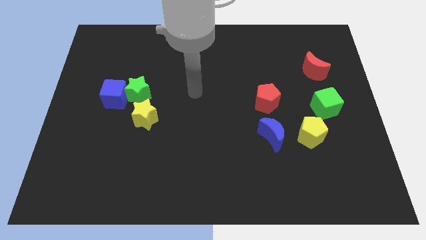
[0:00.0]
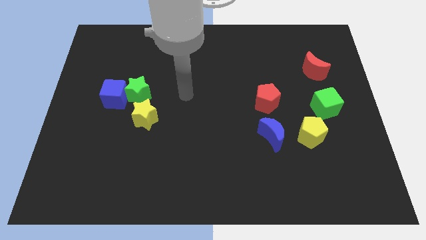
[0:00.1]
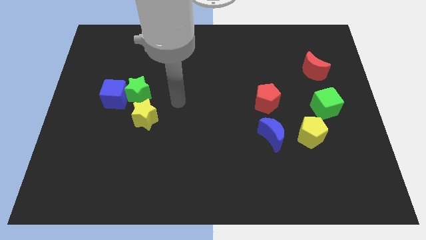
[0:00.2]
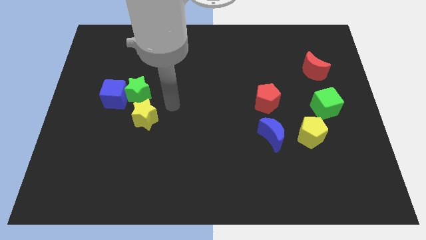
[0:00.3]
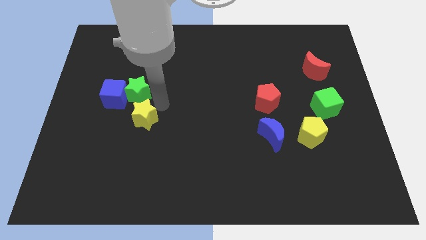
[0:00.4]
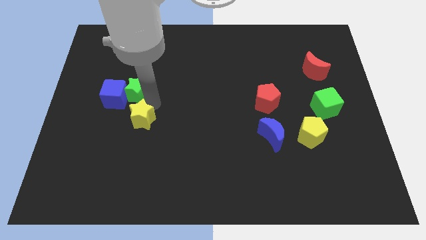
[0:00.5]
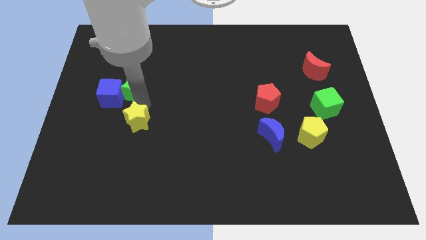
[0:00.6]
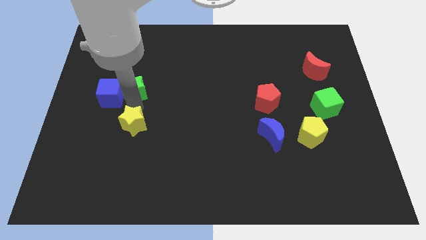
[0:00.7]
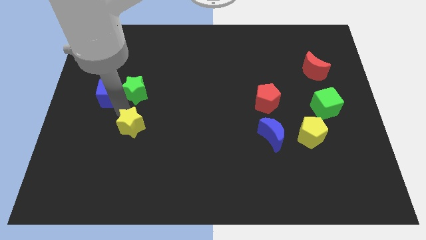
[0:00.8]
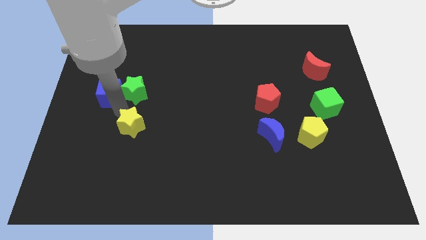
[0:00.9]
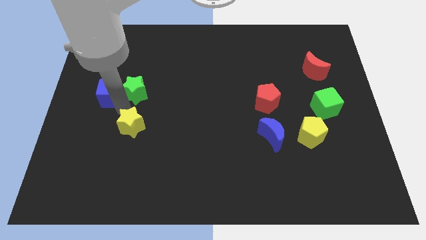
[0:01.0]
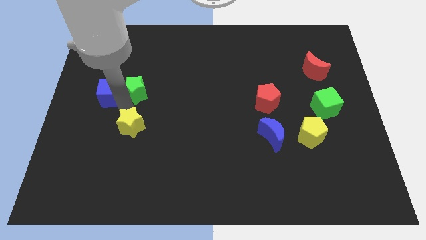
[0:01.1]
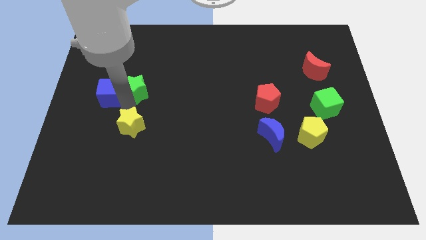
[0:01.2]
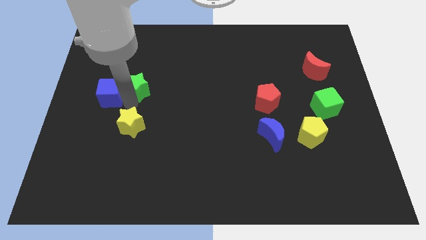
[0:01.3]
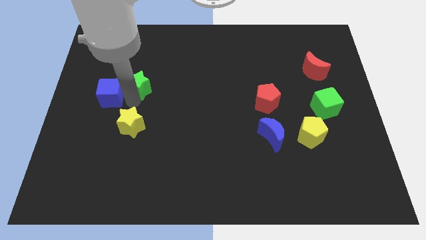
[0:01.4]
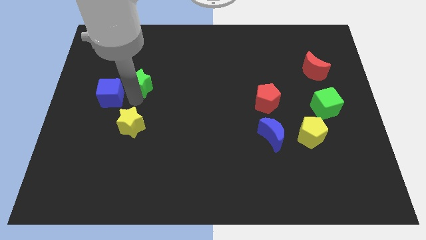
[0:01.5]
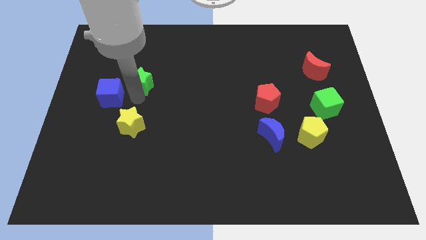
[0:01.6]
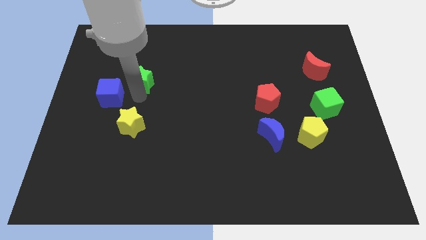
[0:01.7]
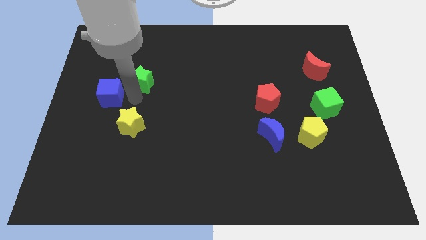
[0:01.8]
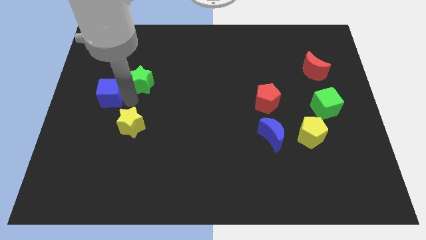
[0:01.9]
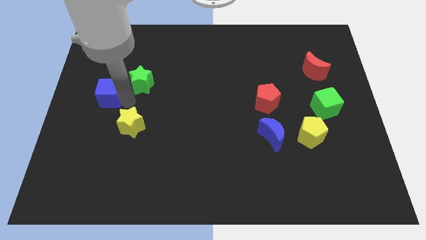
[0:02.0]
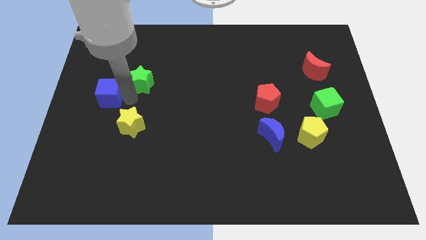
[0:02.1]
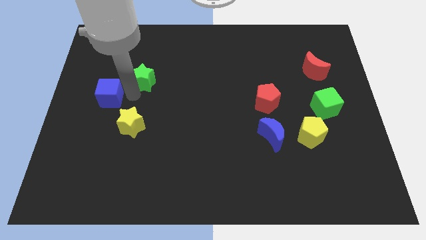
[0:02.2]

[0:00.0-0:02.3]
pull the green star apart from the blue cube and yellow star

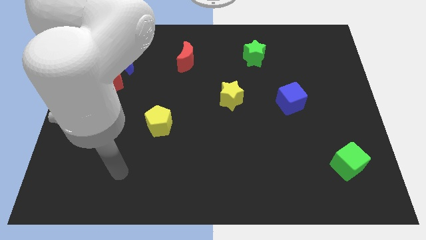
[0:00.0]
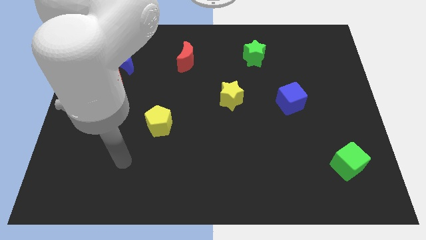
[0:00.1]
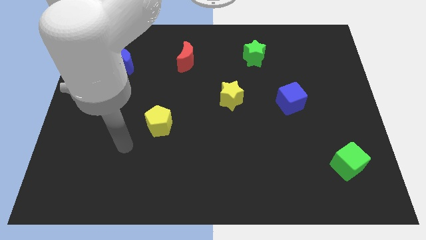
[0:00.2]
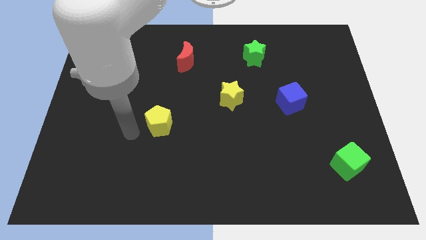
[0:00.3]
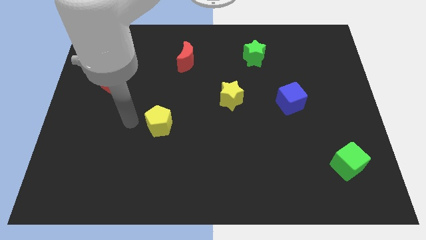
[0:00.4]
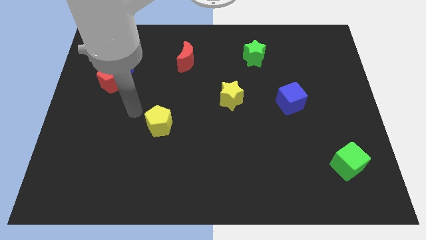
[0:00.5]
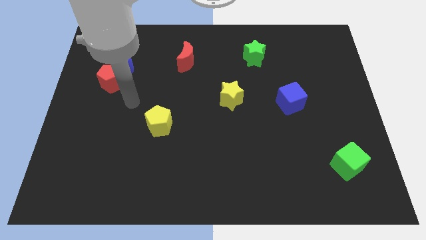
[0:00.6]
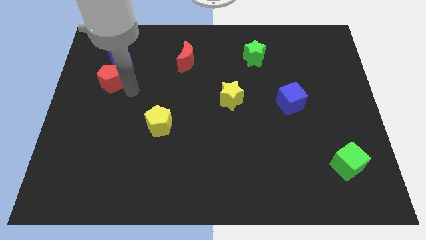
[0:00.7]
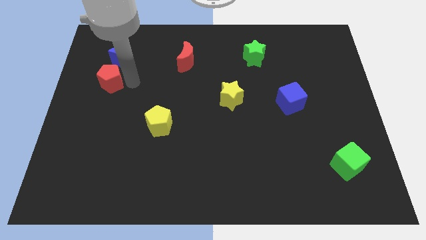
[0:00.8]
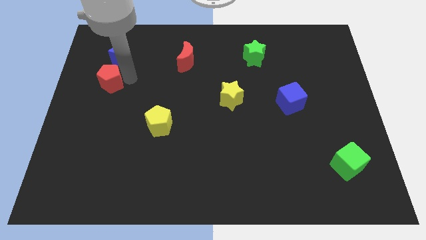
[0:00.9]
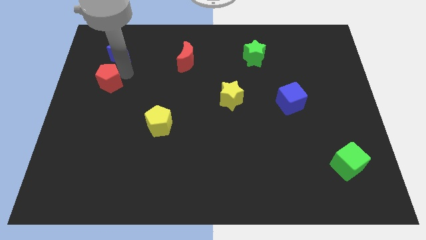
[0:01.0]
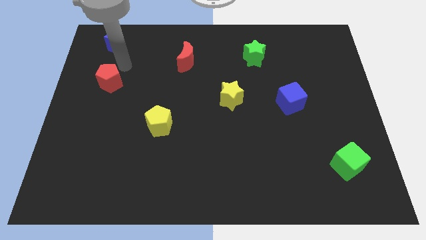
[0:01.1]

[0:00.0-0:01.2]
pull the red pentagon apart from the blue moon

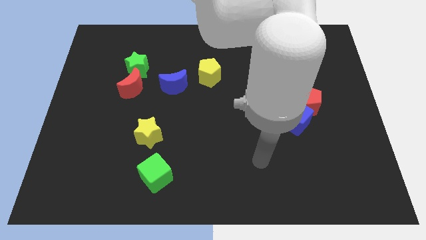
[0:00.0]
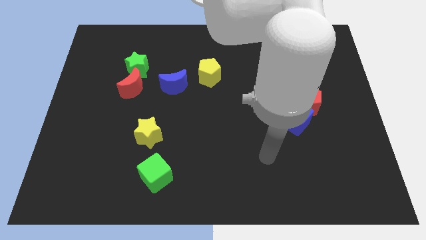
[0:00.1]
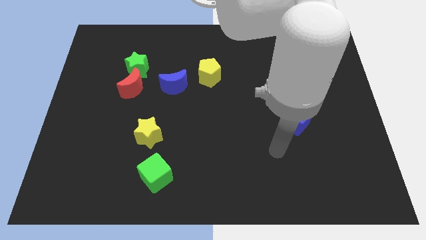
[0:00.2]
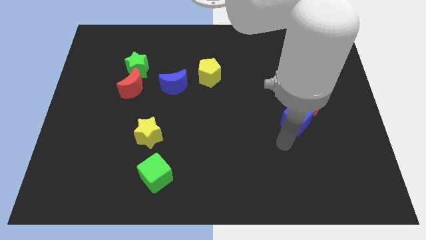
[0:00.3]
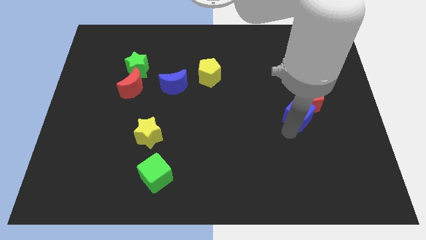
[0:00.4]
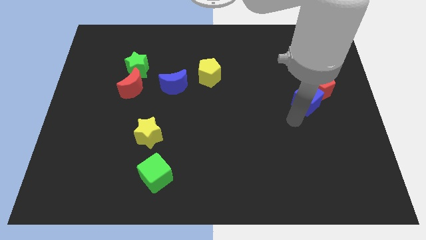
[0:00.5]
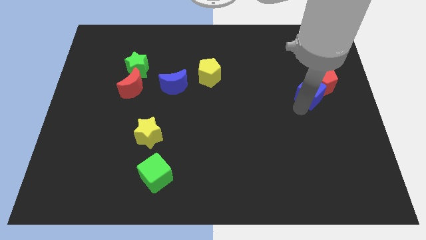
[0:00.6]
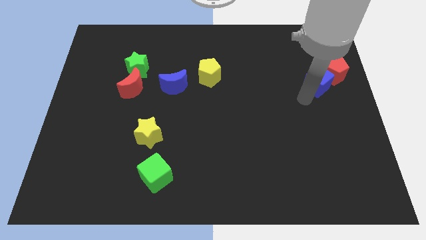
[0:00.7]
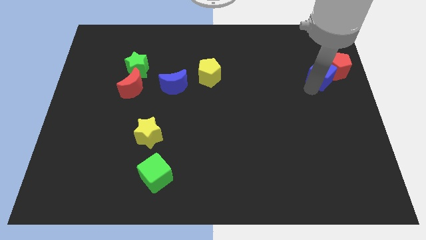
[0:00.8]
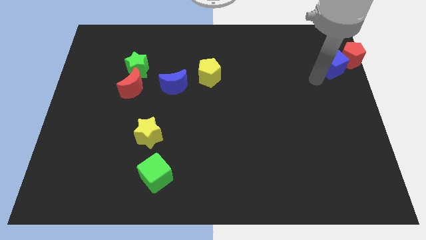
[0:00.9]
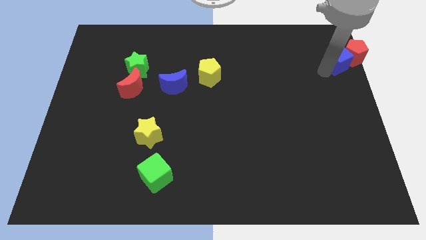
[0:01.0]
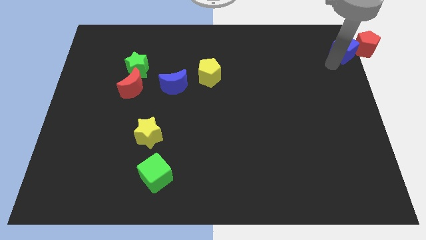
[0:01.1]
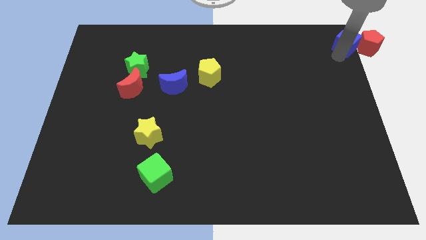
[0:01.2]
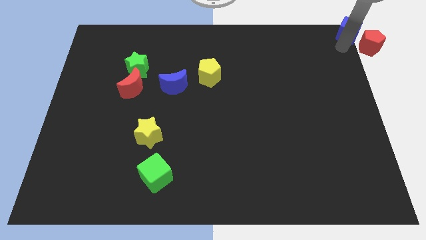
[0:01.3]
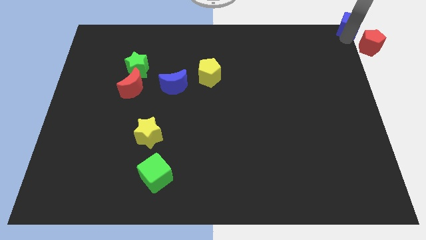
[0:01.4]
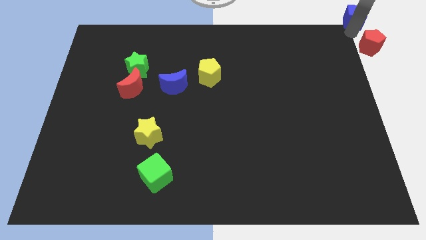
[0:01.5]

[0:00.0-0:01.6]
move the red pentagon away from the blue cube

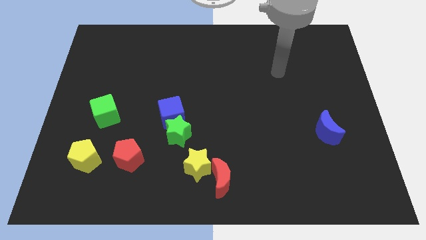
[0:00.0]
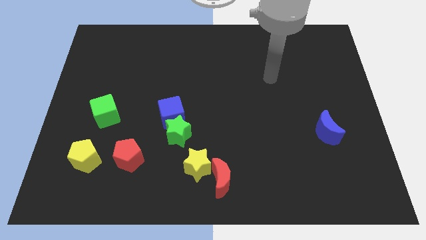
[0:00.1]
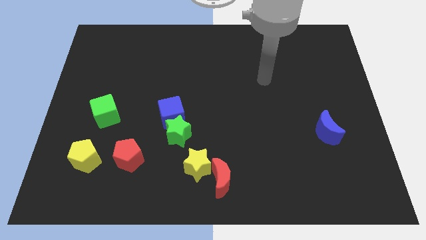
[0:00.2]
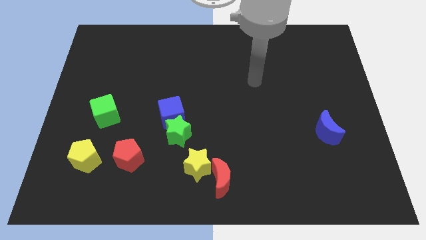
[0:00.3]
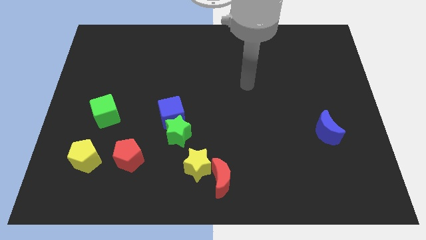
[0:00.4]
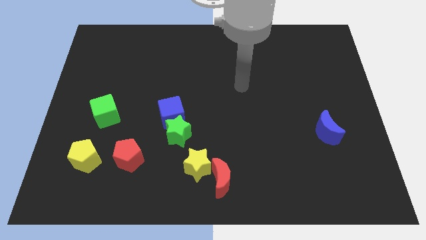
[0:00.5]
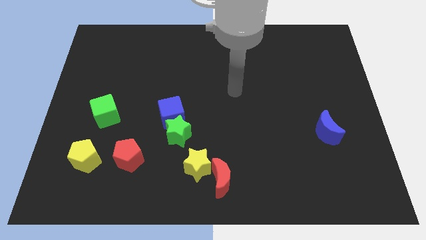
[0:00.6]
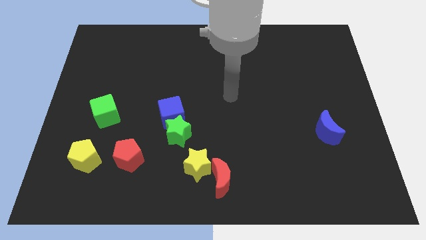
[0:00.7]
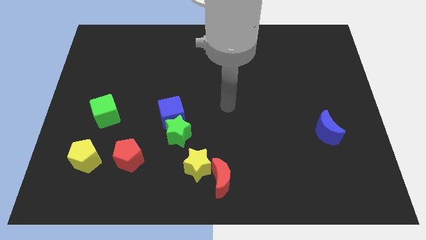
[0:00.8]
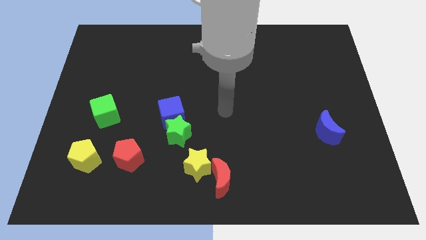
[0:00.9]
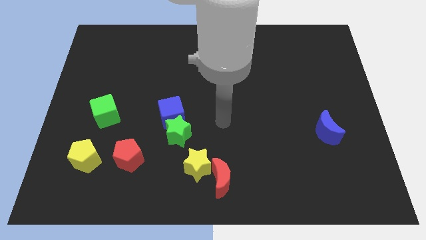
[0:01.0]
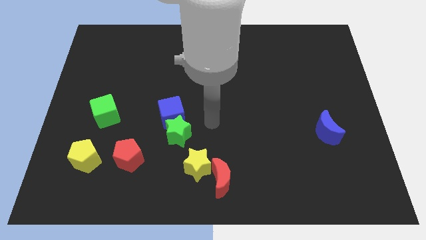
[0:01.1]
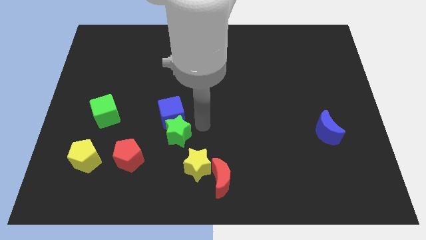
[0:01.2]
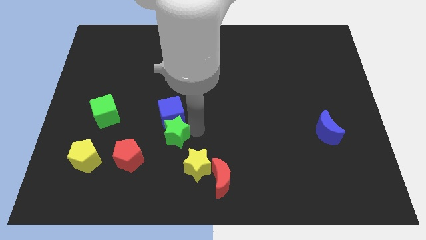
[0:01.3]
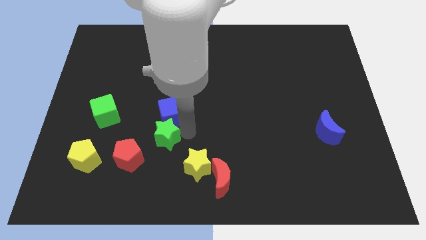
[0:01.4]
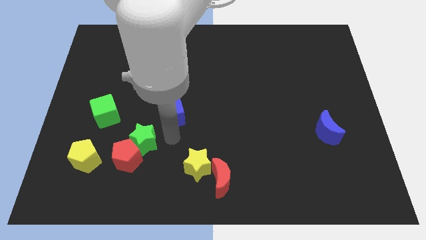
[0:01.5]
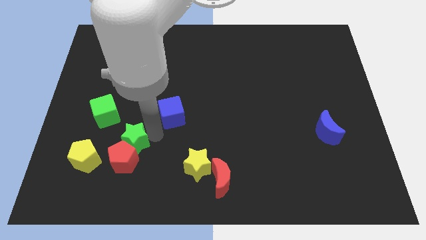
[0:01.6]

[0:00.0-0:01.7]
separate the blue cube from the green star

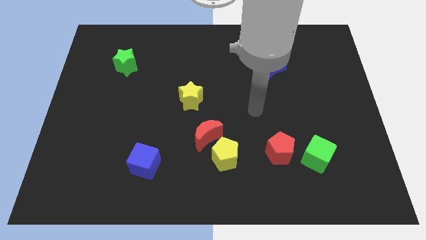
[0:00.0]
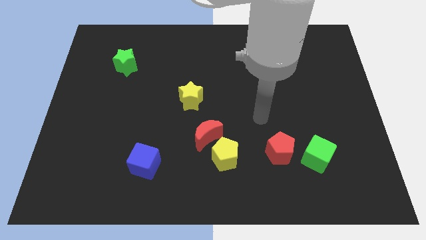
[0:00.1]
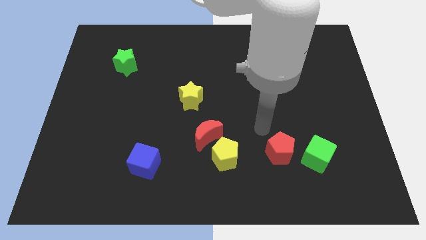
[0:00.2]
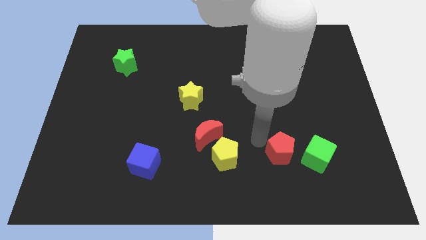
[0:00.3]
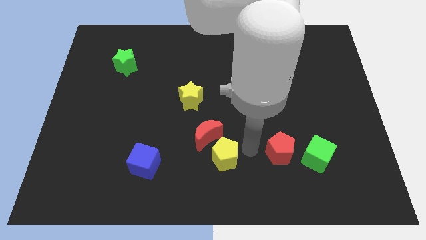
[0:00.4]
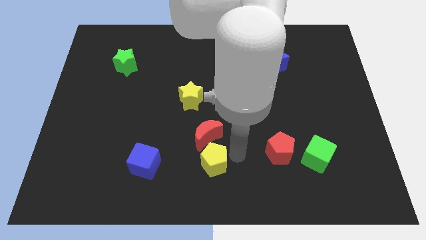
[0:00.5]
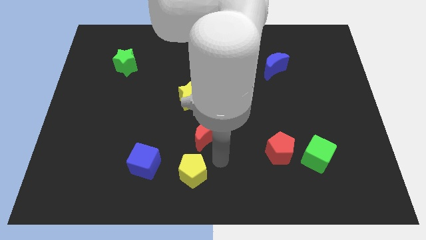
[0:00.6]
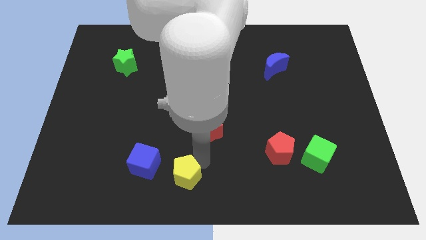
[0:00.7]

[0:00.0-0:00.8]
separate the red moon from the yellow pentagon

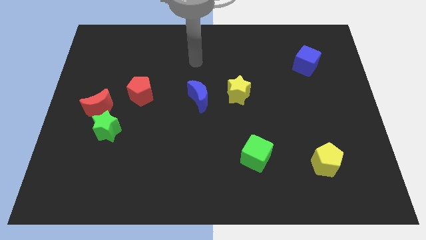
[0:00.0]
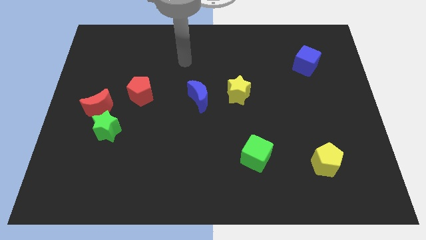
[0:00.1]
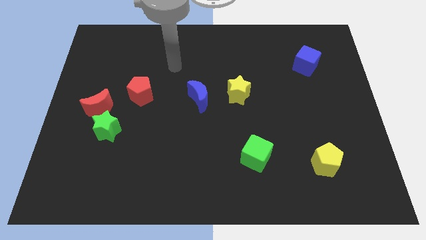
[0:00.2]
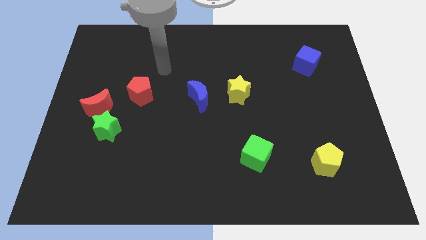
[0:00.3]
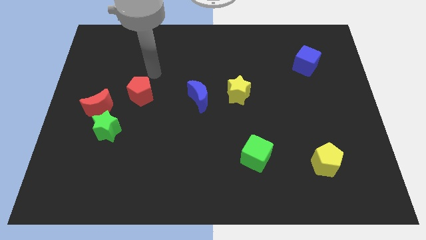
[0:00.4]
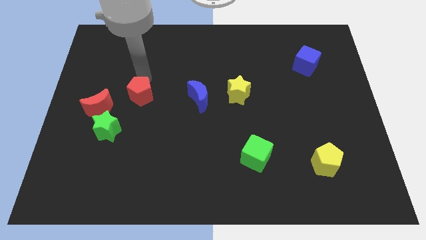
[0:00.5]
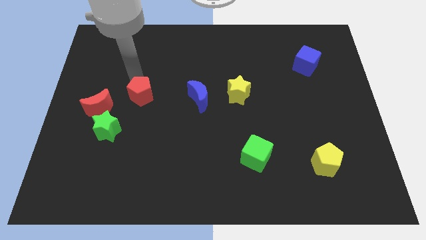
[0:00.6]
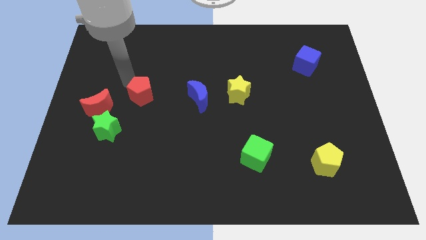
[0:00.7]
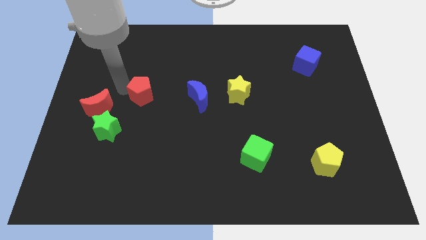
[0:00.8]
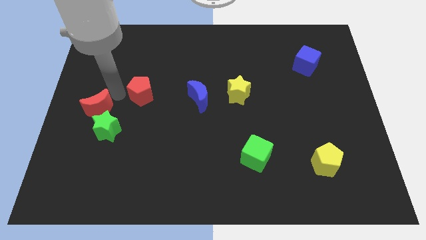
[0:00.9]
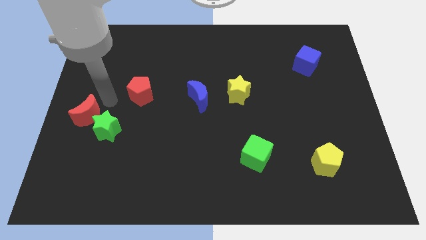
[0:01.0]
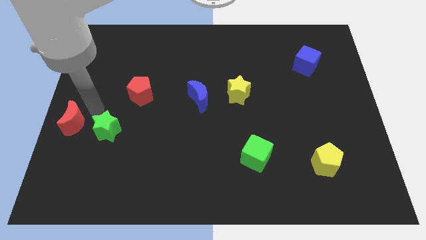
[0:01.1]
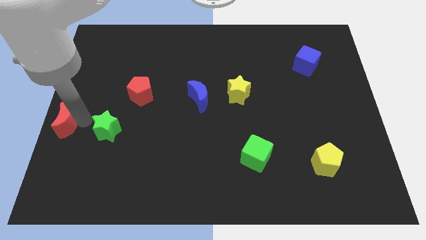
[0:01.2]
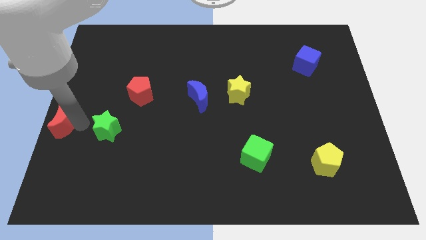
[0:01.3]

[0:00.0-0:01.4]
move the green star away from the red moon

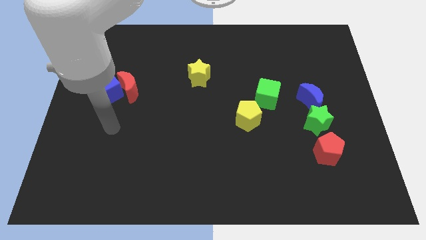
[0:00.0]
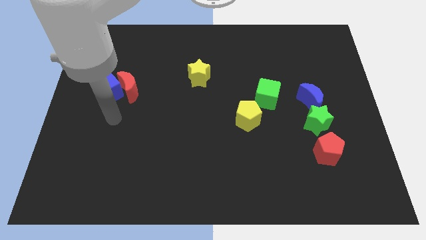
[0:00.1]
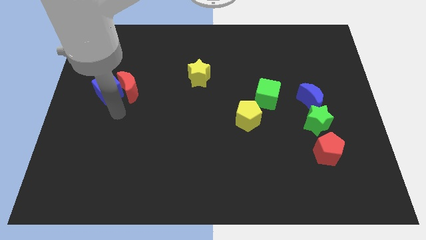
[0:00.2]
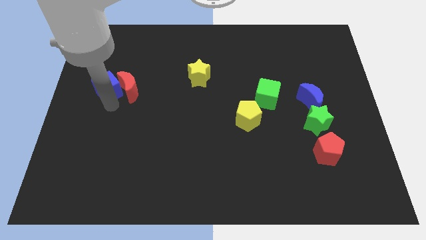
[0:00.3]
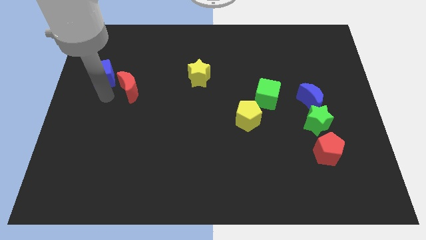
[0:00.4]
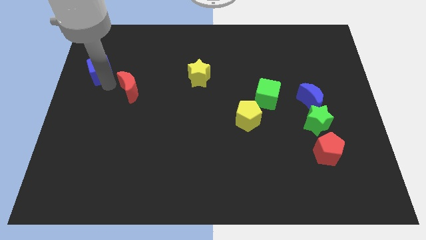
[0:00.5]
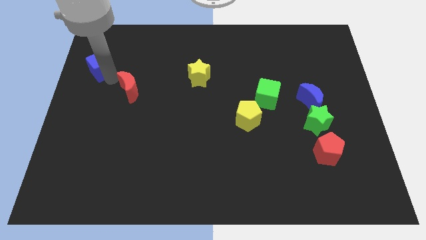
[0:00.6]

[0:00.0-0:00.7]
move the red moon away from the blue cube
